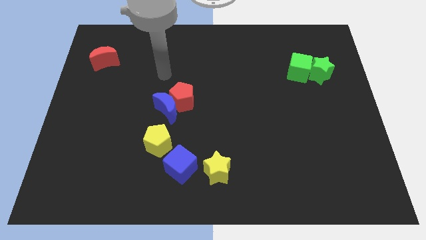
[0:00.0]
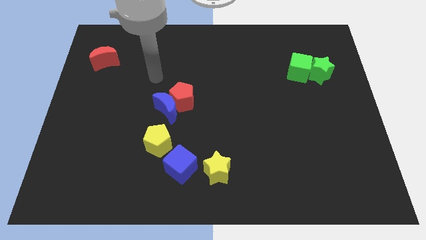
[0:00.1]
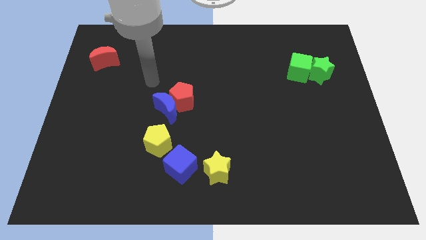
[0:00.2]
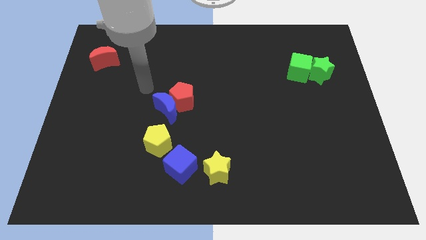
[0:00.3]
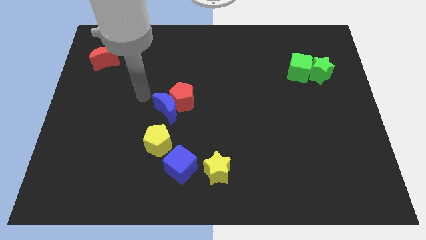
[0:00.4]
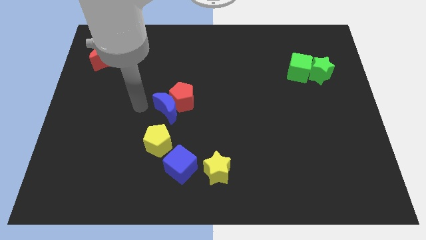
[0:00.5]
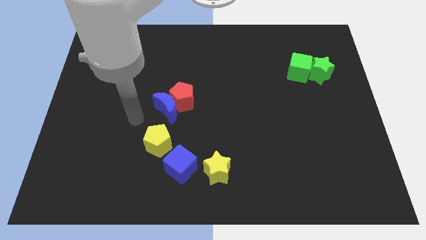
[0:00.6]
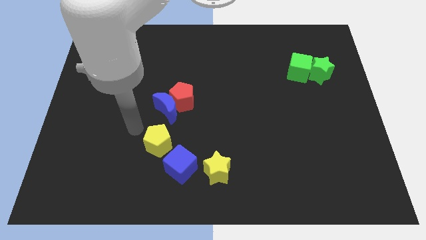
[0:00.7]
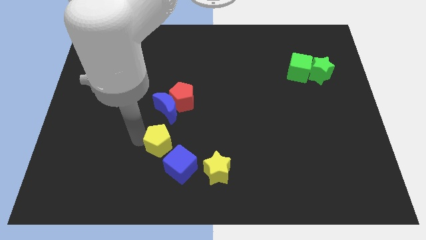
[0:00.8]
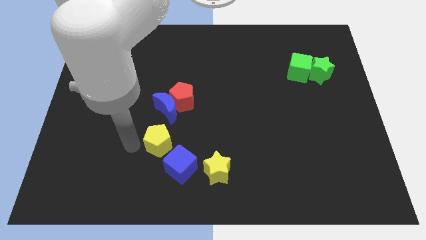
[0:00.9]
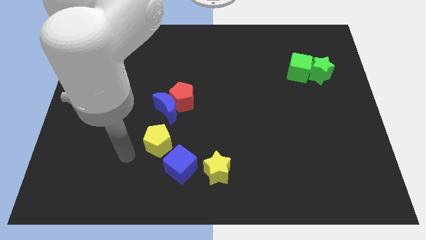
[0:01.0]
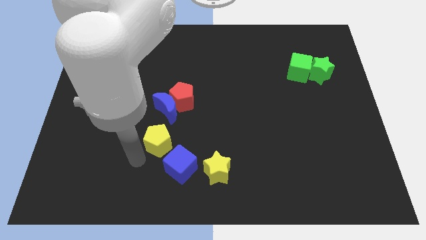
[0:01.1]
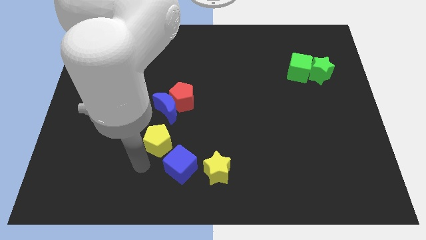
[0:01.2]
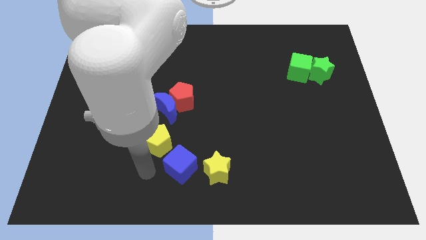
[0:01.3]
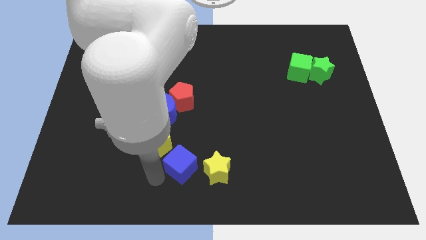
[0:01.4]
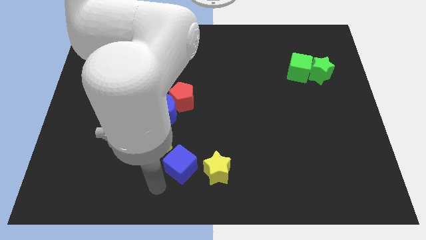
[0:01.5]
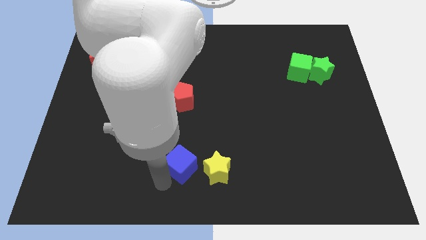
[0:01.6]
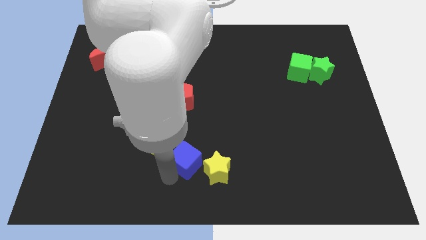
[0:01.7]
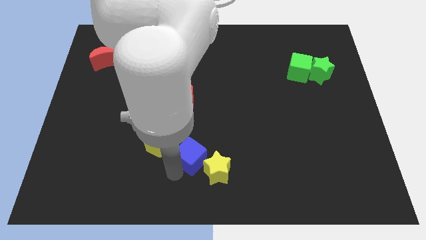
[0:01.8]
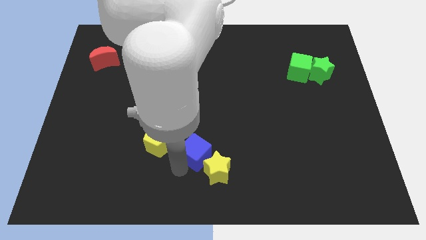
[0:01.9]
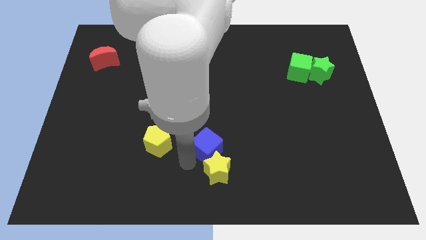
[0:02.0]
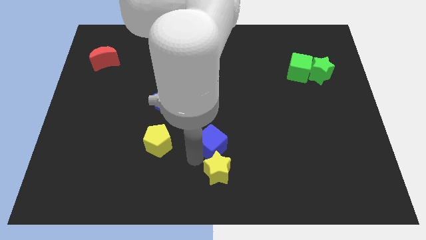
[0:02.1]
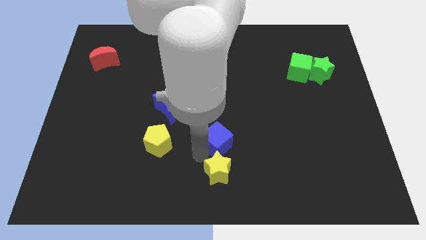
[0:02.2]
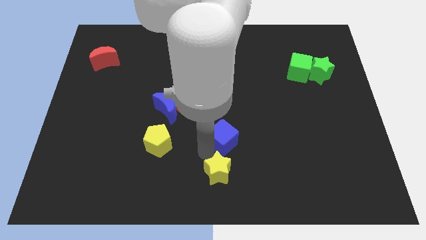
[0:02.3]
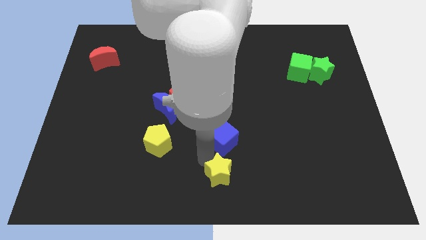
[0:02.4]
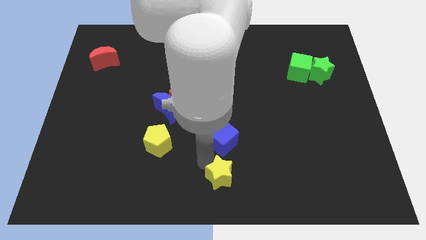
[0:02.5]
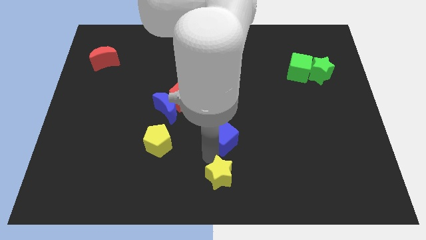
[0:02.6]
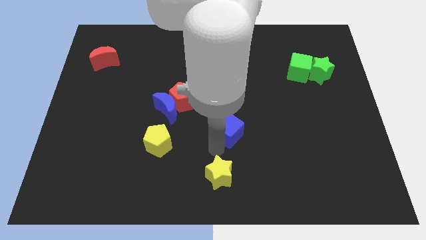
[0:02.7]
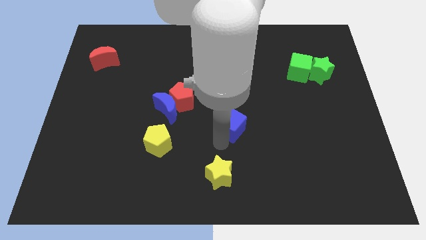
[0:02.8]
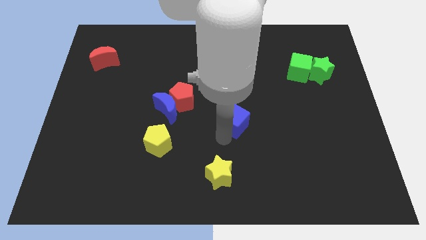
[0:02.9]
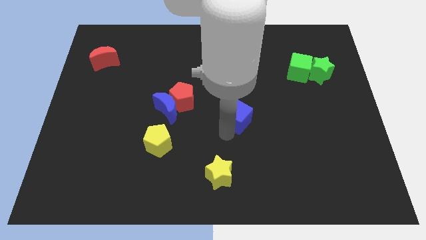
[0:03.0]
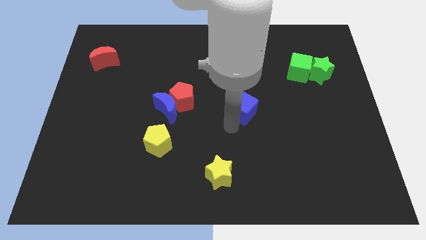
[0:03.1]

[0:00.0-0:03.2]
push the blue cube upwards and to the right

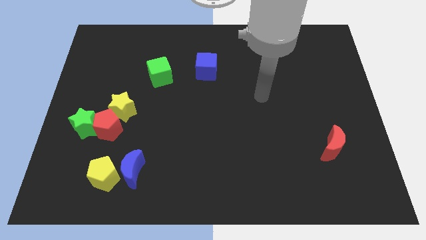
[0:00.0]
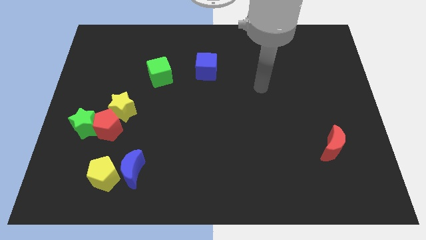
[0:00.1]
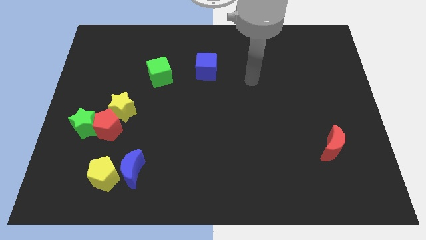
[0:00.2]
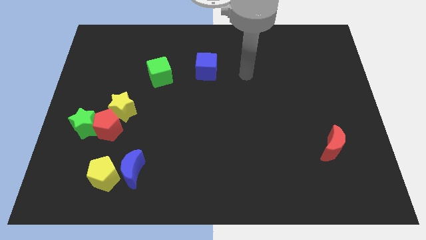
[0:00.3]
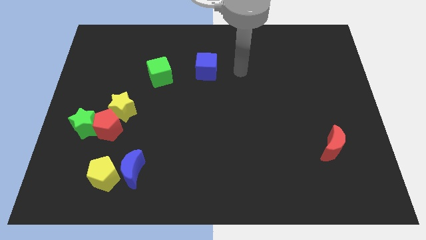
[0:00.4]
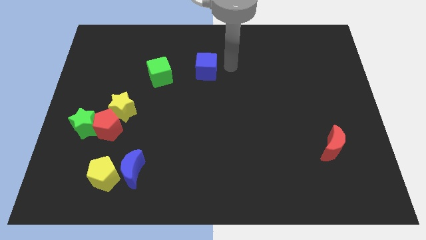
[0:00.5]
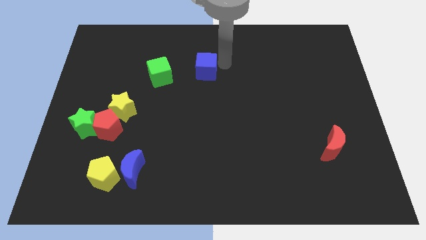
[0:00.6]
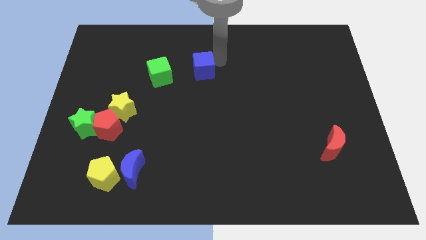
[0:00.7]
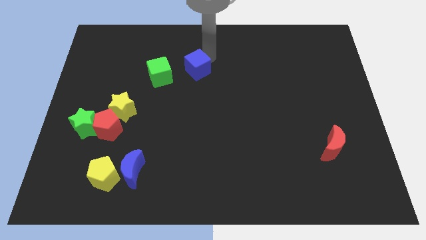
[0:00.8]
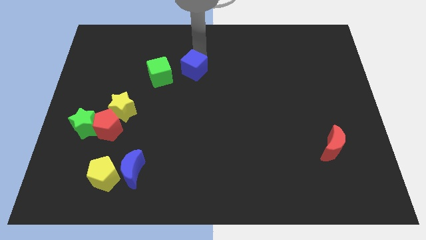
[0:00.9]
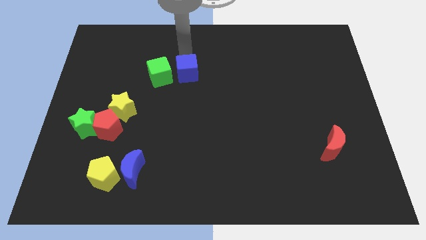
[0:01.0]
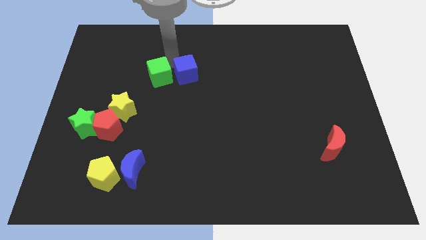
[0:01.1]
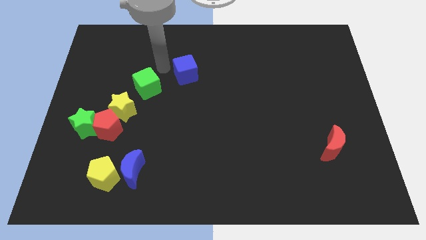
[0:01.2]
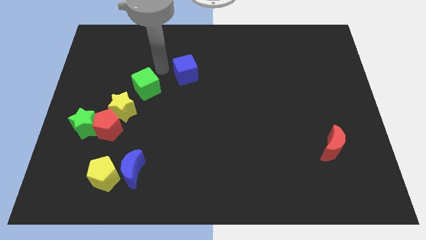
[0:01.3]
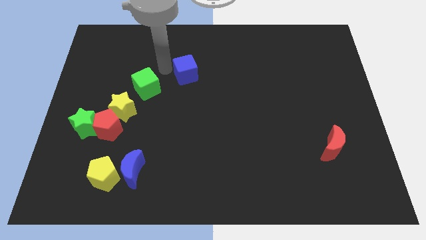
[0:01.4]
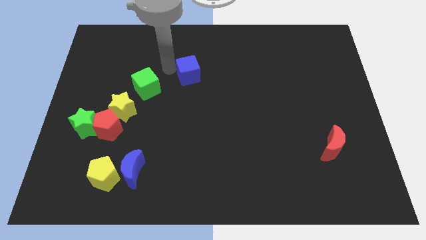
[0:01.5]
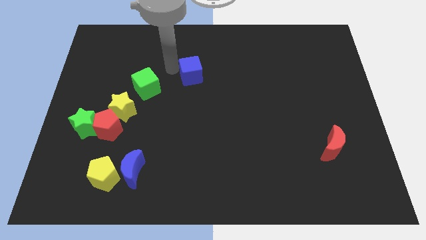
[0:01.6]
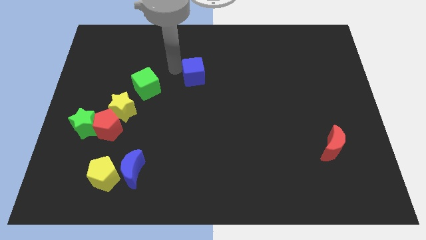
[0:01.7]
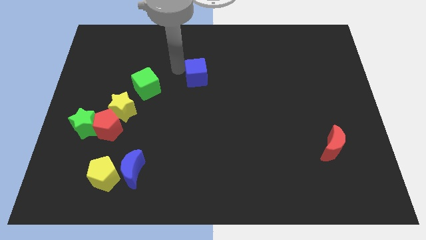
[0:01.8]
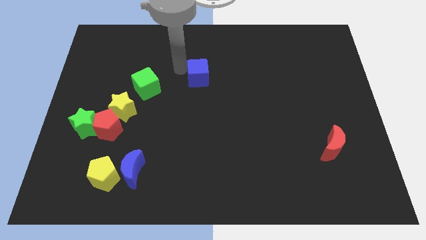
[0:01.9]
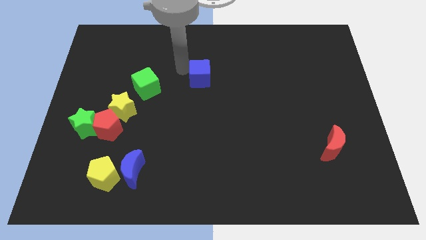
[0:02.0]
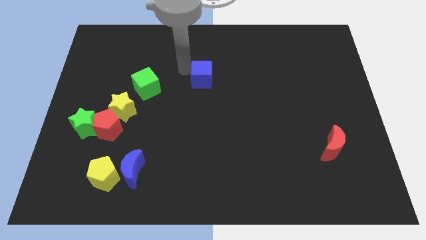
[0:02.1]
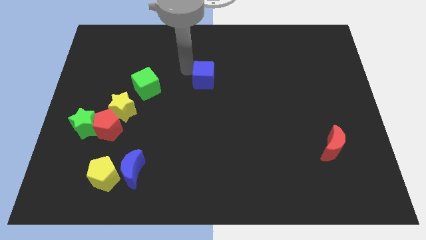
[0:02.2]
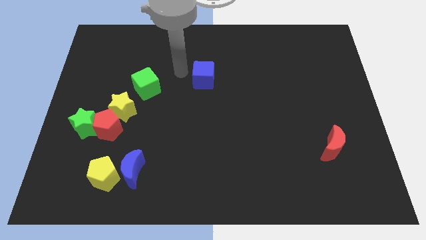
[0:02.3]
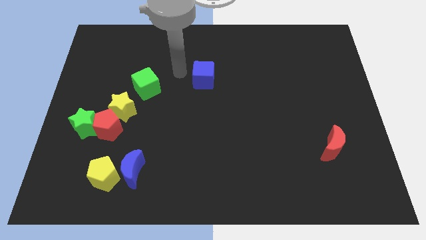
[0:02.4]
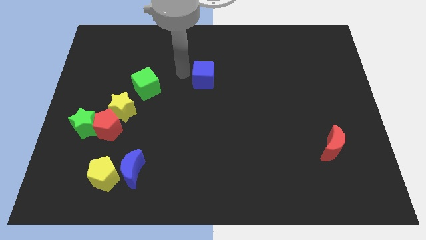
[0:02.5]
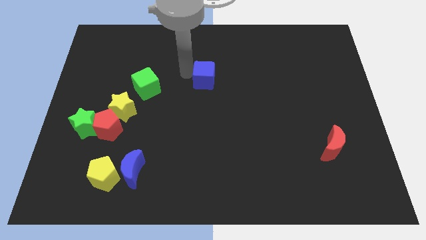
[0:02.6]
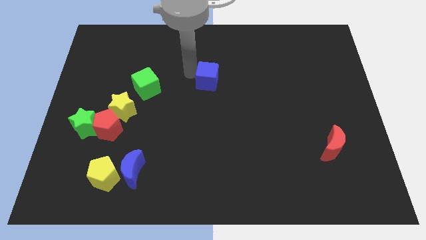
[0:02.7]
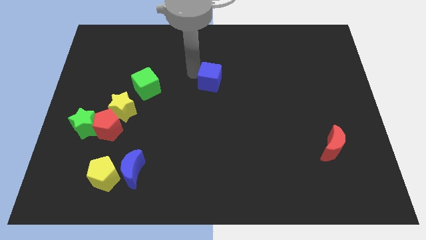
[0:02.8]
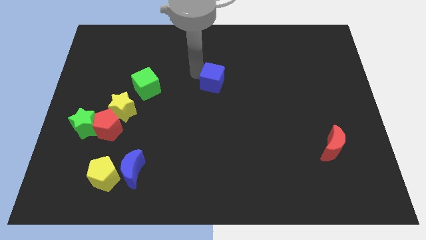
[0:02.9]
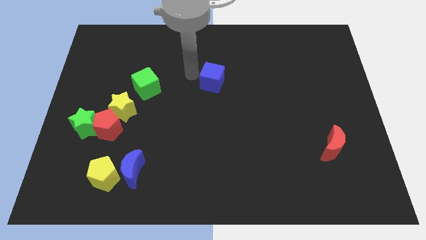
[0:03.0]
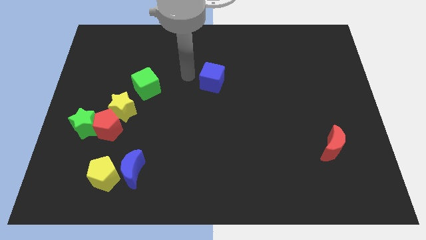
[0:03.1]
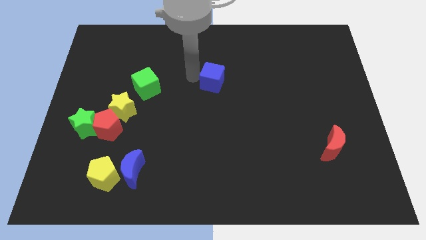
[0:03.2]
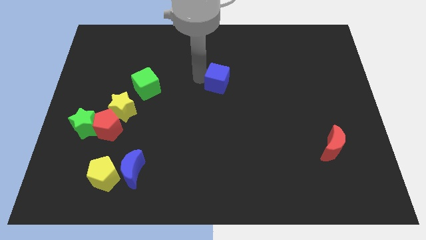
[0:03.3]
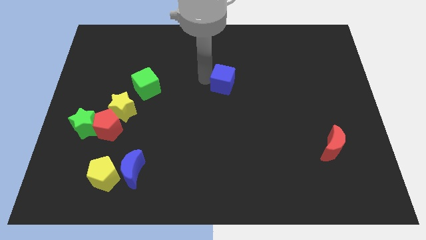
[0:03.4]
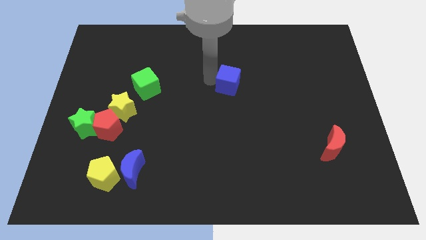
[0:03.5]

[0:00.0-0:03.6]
push the blue cube downwards and to the right slightly

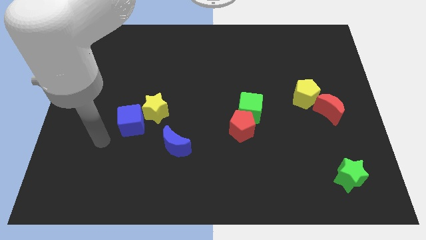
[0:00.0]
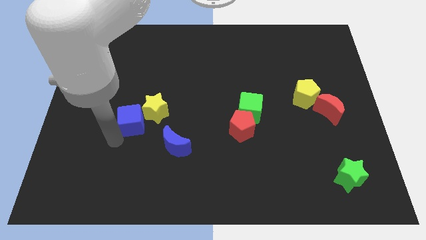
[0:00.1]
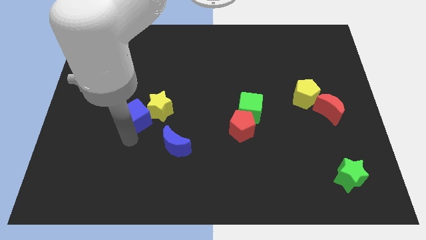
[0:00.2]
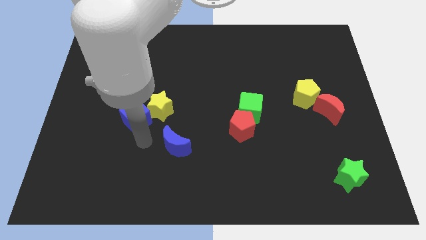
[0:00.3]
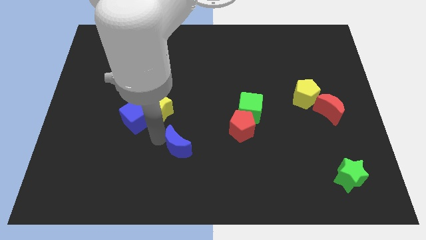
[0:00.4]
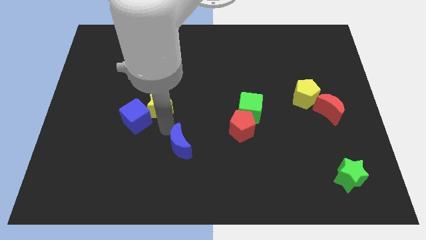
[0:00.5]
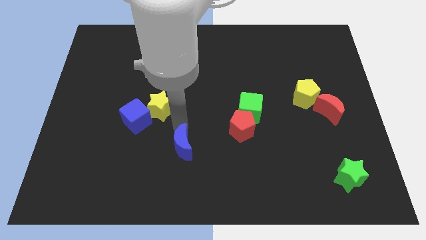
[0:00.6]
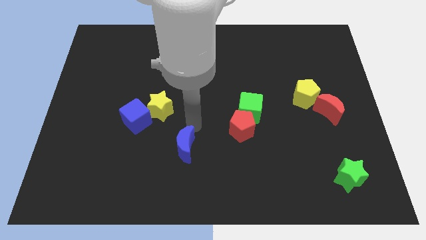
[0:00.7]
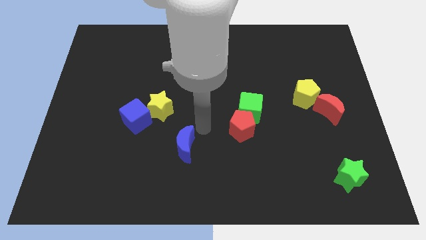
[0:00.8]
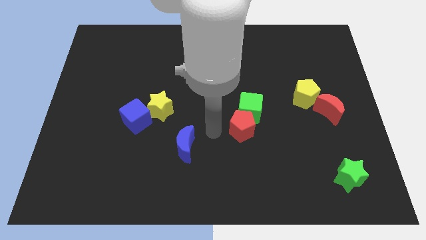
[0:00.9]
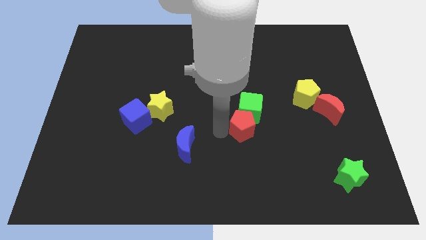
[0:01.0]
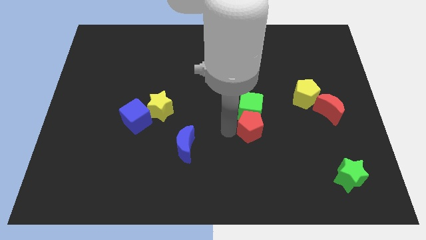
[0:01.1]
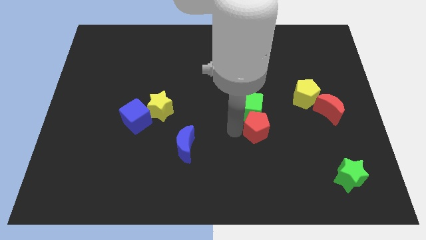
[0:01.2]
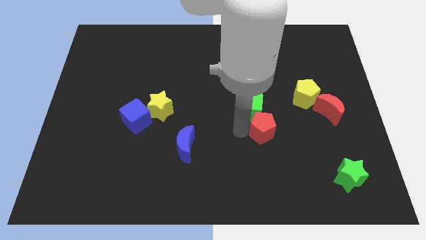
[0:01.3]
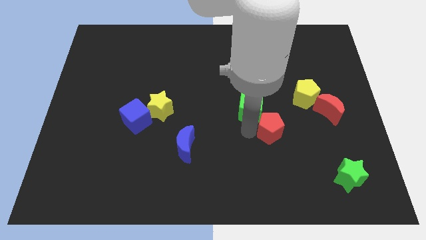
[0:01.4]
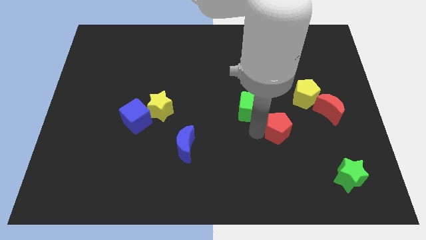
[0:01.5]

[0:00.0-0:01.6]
slide the red pentagon a little right
